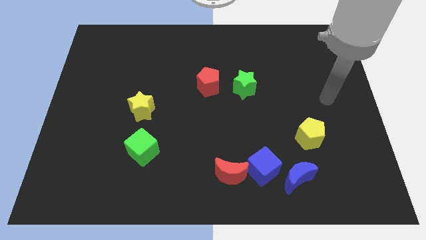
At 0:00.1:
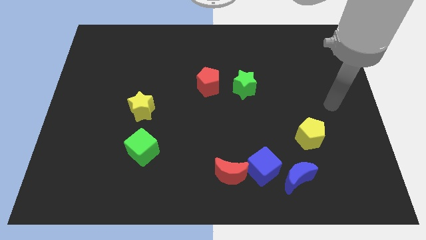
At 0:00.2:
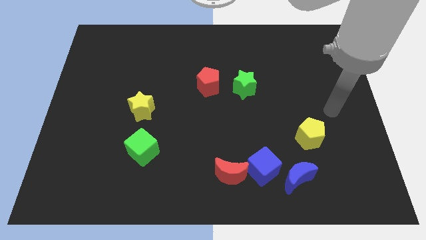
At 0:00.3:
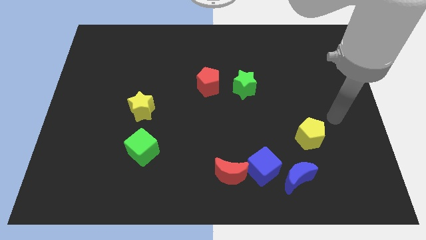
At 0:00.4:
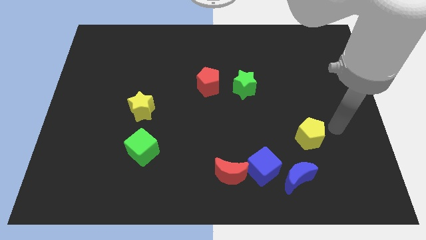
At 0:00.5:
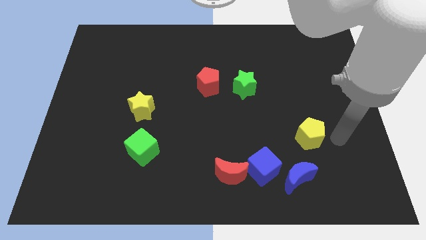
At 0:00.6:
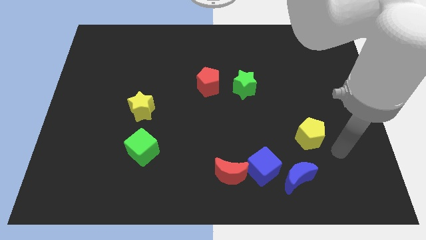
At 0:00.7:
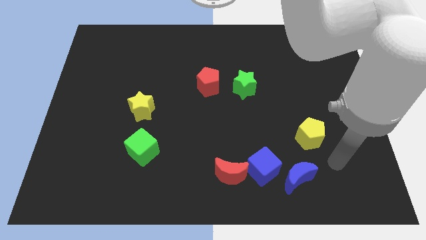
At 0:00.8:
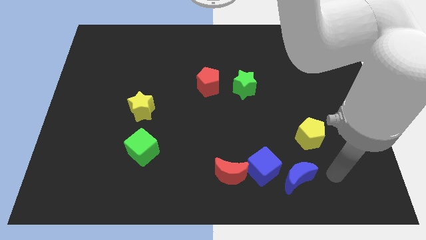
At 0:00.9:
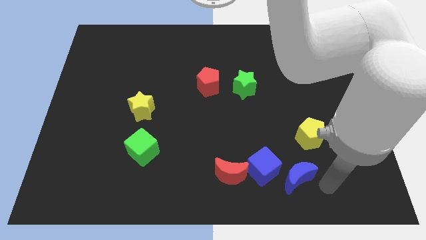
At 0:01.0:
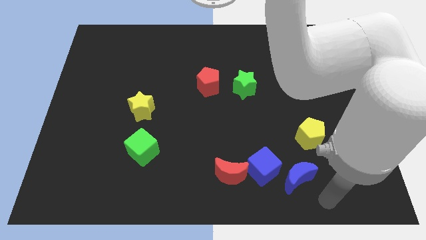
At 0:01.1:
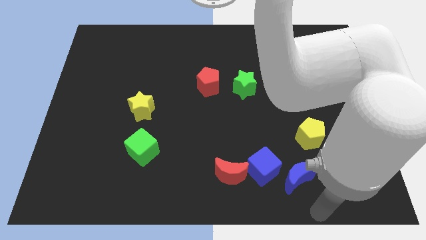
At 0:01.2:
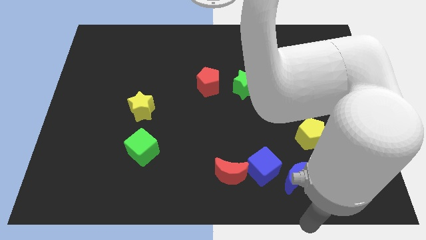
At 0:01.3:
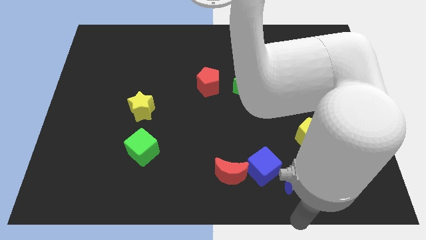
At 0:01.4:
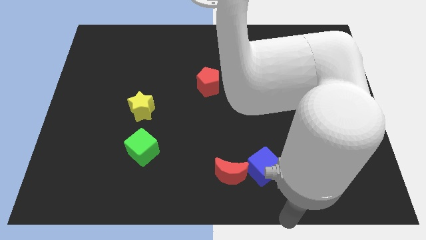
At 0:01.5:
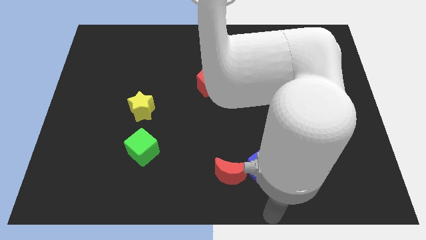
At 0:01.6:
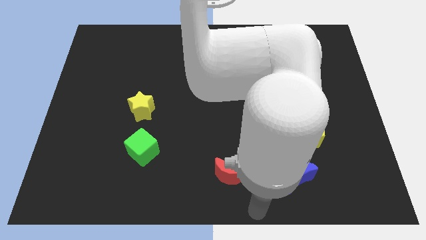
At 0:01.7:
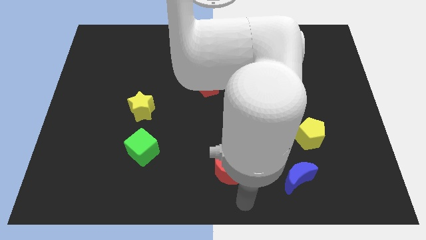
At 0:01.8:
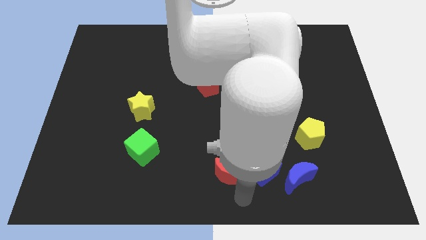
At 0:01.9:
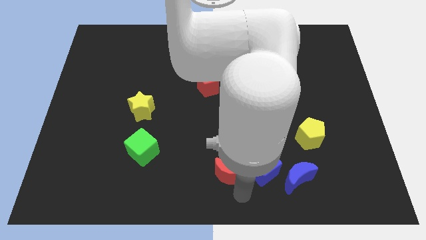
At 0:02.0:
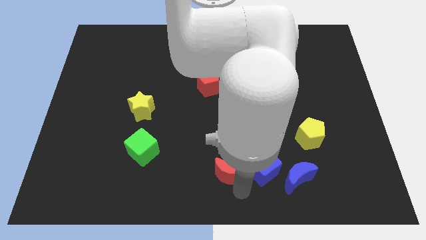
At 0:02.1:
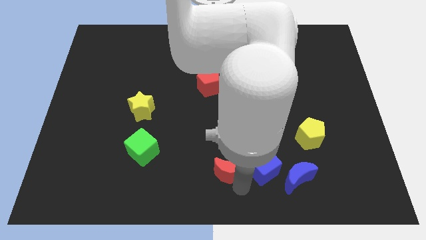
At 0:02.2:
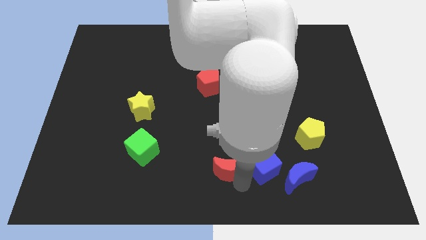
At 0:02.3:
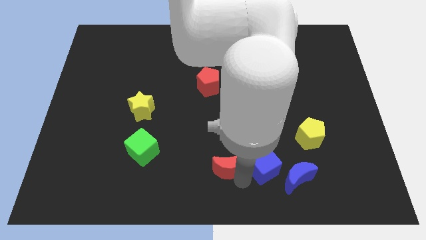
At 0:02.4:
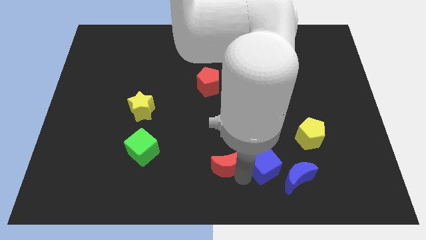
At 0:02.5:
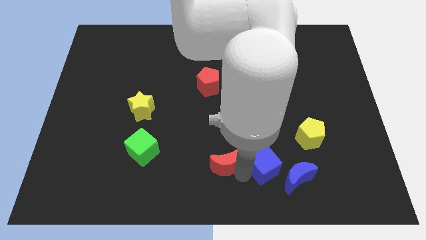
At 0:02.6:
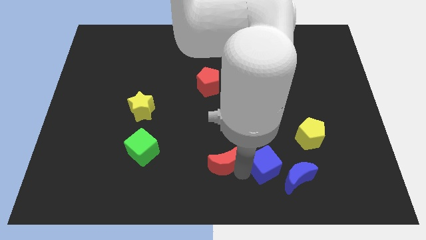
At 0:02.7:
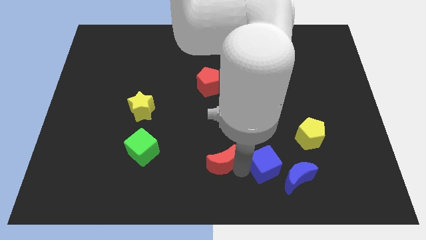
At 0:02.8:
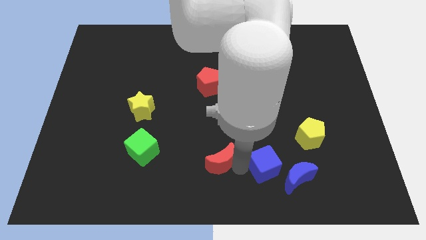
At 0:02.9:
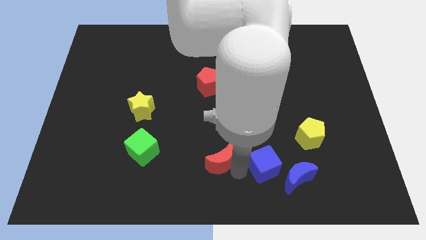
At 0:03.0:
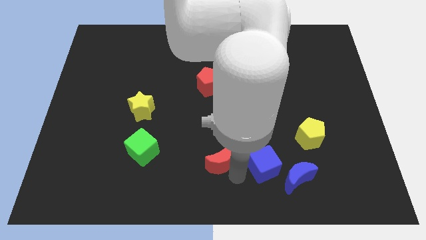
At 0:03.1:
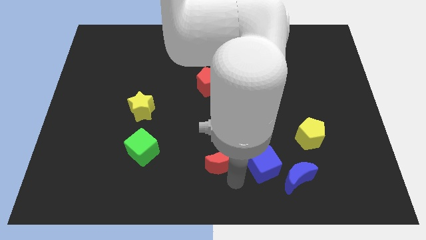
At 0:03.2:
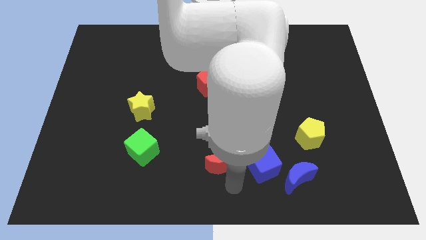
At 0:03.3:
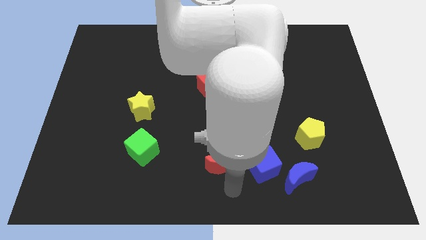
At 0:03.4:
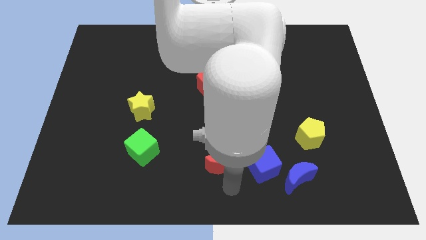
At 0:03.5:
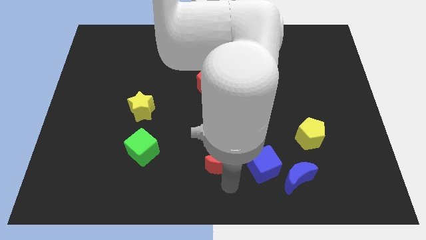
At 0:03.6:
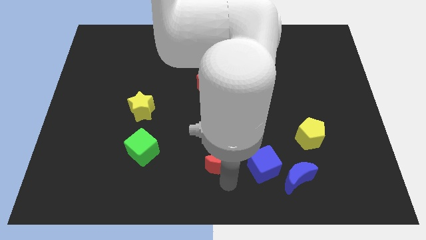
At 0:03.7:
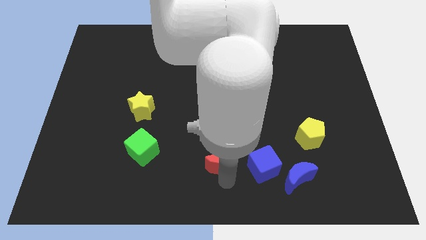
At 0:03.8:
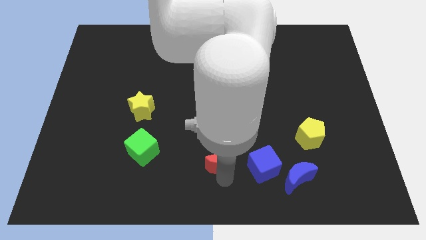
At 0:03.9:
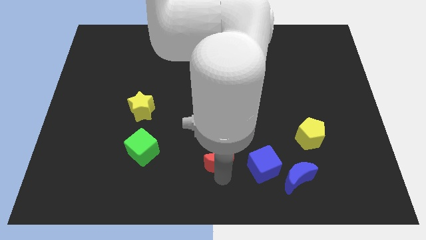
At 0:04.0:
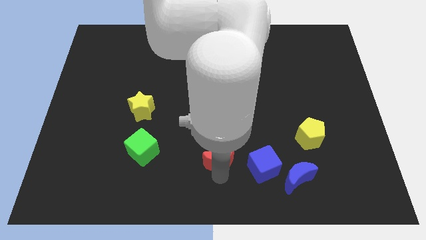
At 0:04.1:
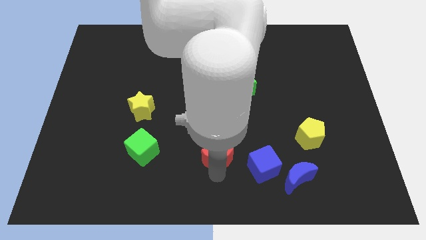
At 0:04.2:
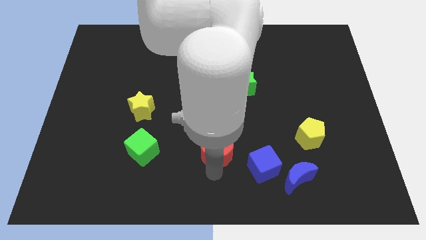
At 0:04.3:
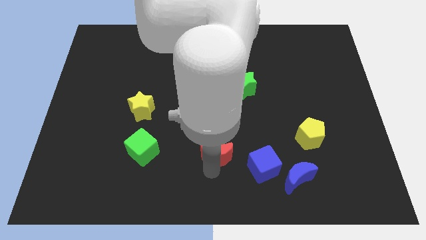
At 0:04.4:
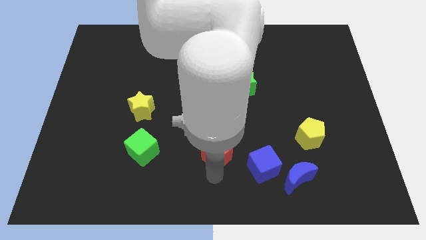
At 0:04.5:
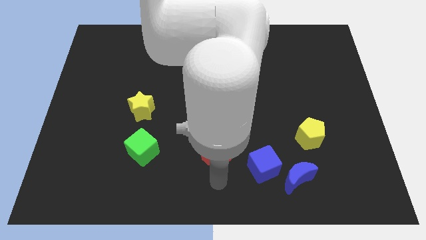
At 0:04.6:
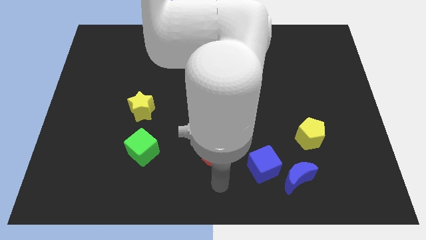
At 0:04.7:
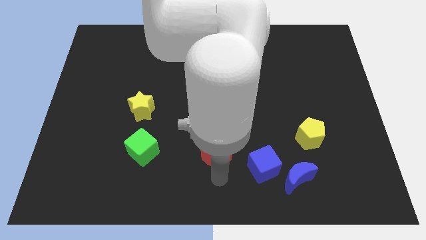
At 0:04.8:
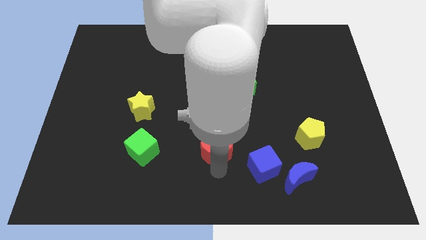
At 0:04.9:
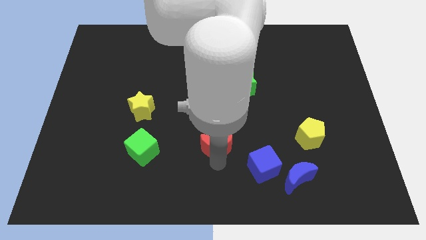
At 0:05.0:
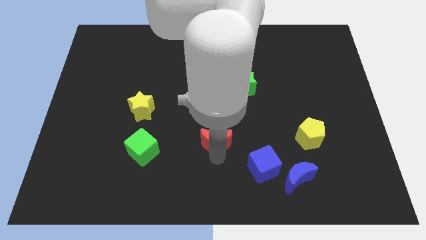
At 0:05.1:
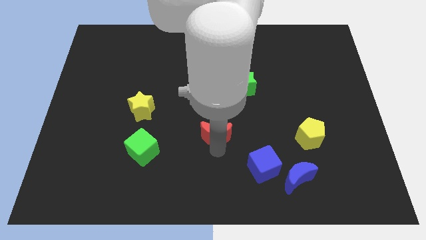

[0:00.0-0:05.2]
put the red moon to the bottom of the red pentagon

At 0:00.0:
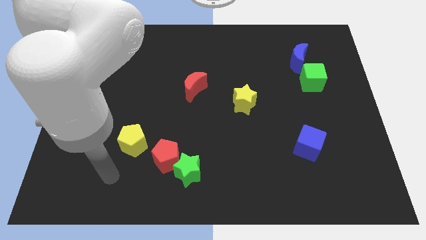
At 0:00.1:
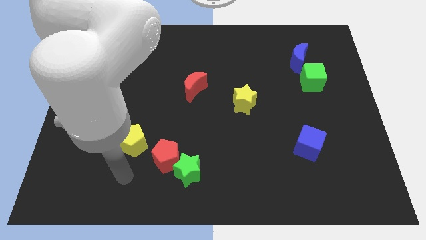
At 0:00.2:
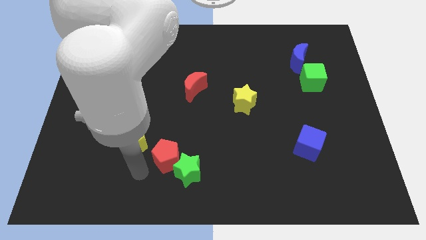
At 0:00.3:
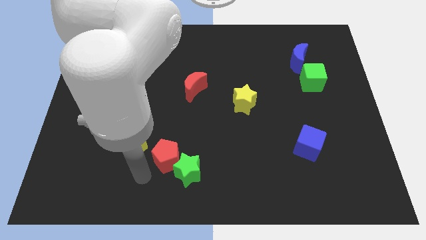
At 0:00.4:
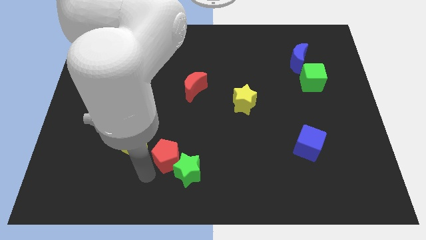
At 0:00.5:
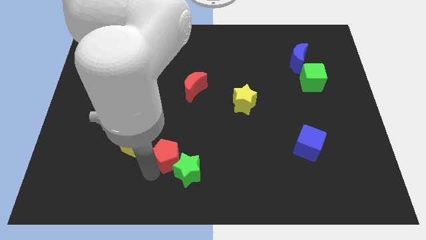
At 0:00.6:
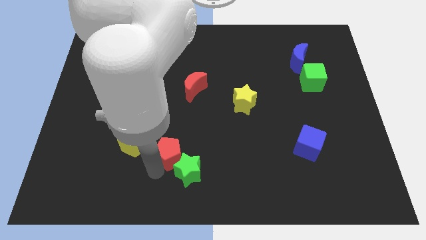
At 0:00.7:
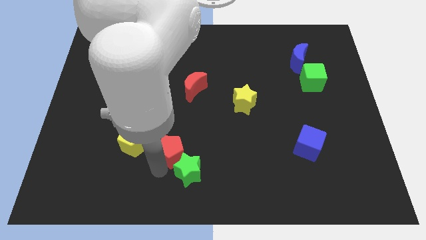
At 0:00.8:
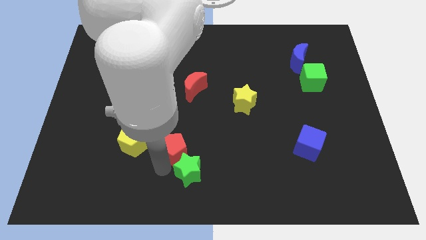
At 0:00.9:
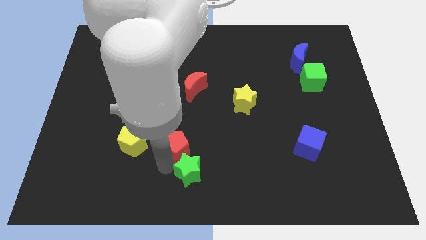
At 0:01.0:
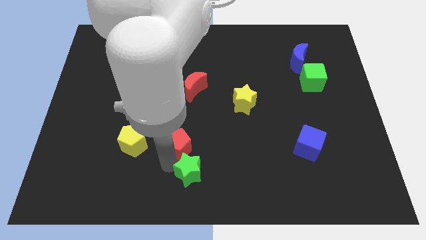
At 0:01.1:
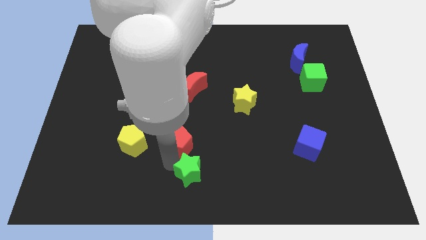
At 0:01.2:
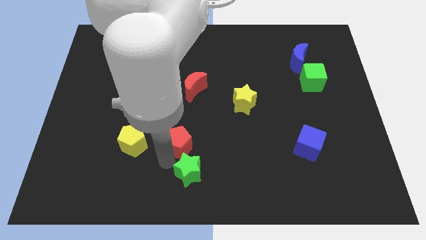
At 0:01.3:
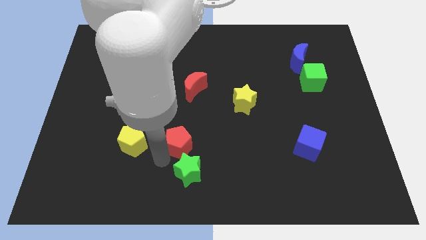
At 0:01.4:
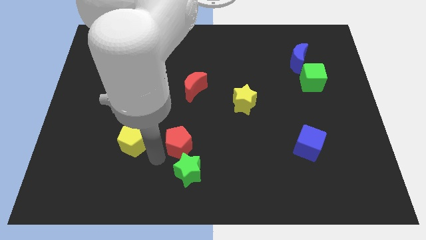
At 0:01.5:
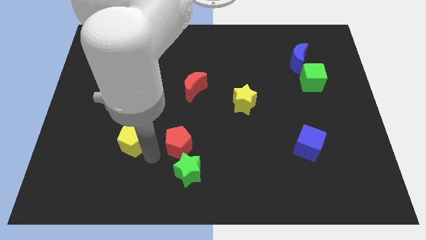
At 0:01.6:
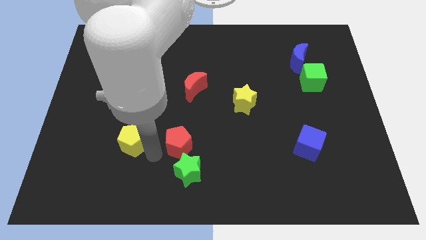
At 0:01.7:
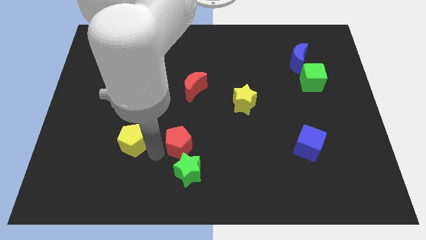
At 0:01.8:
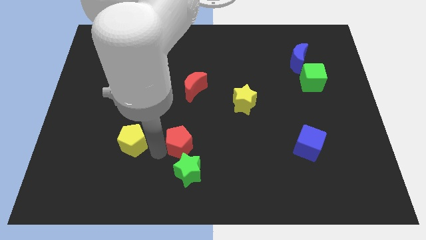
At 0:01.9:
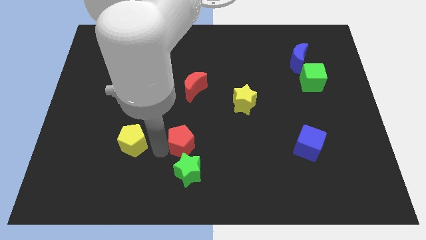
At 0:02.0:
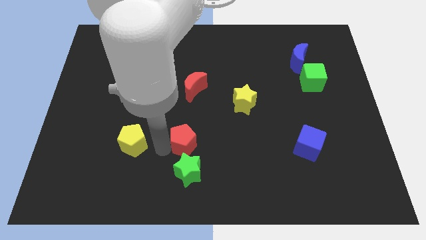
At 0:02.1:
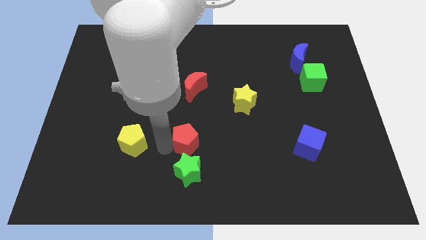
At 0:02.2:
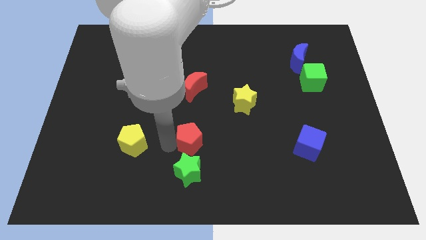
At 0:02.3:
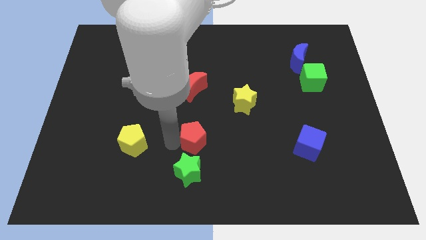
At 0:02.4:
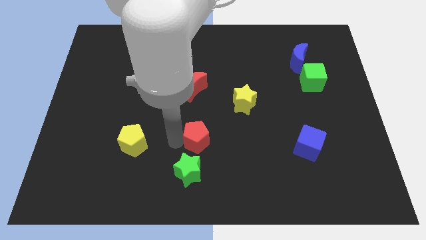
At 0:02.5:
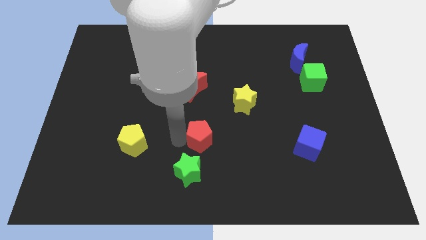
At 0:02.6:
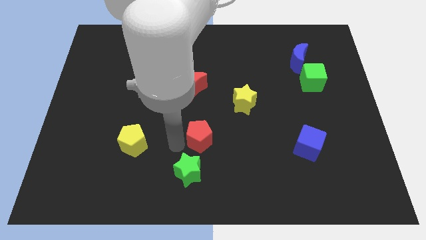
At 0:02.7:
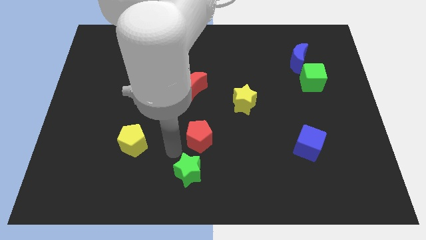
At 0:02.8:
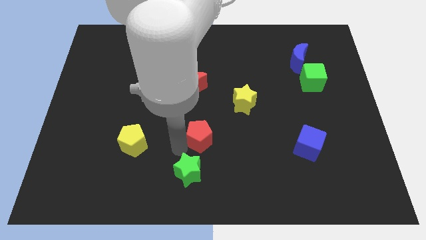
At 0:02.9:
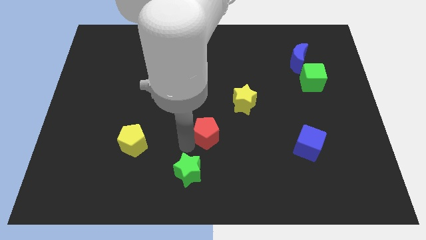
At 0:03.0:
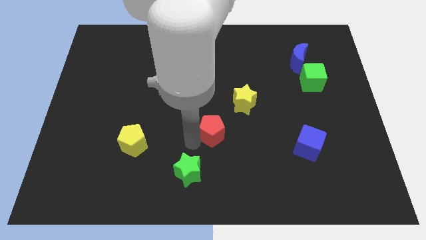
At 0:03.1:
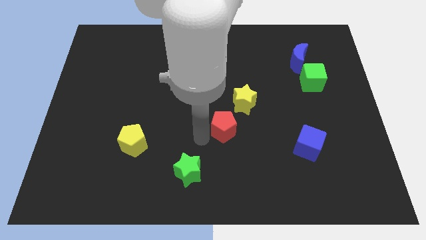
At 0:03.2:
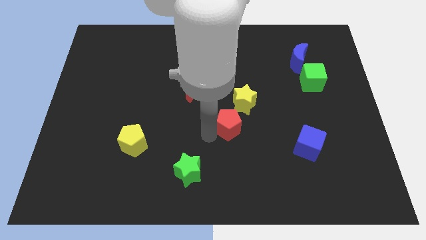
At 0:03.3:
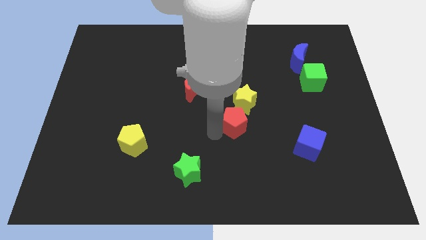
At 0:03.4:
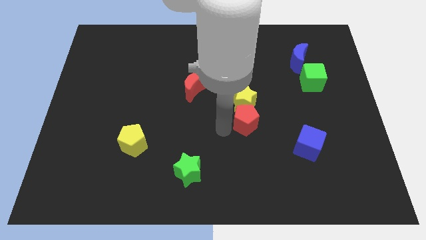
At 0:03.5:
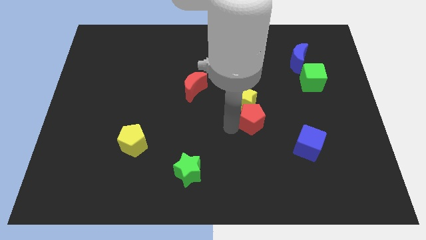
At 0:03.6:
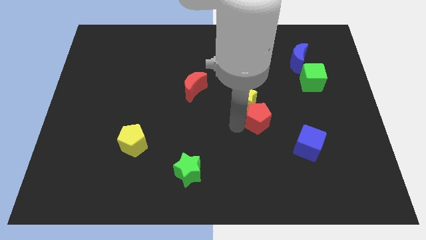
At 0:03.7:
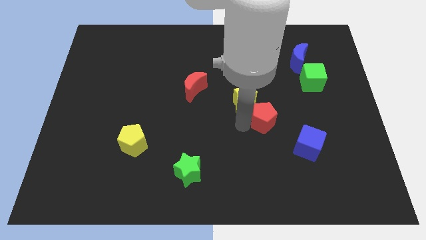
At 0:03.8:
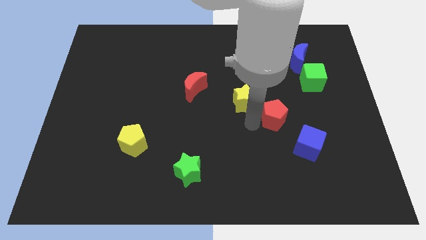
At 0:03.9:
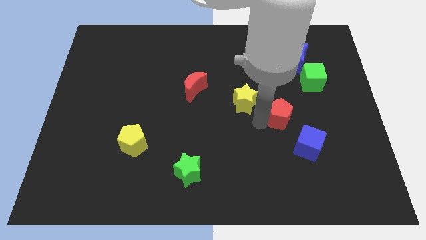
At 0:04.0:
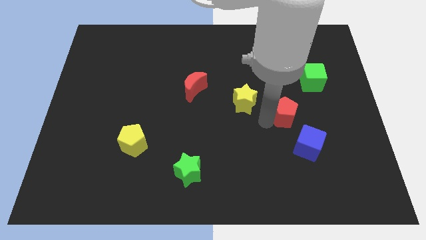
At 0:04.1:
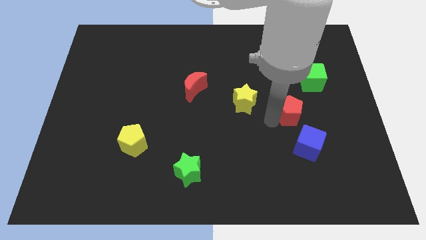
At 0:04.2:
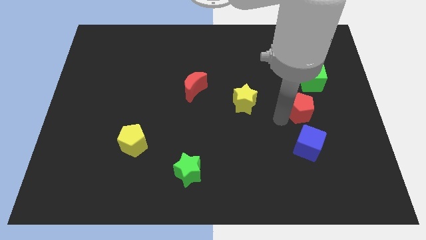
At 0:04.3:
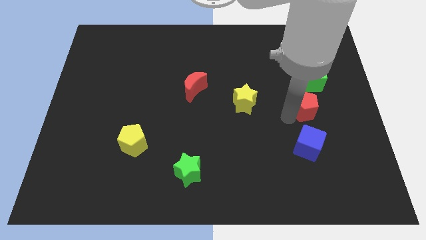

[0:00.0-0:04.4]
push the red pentagon to the bottom of the blue moon
